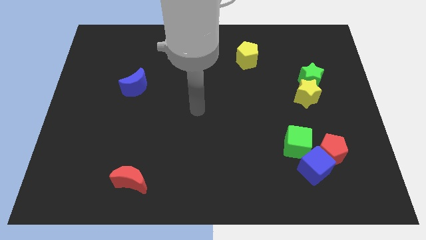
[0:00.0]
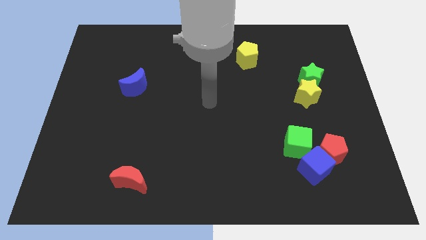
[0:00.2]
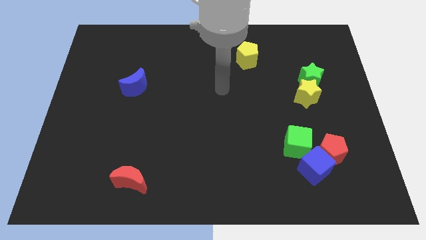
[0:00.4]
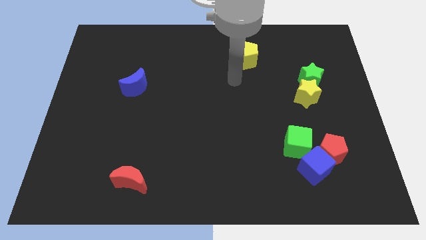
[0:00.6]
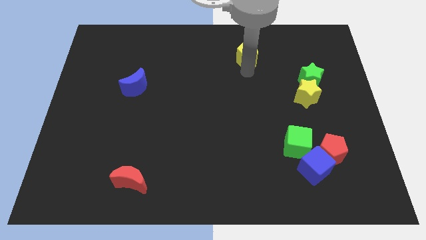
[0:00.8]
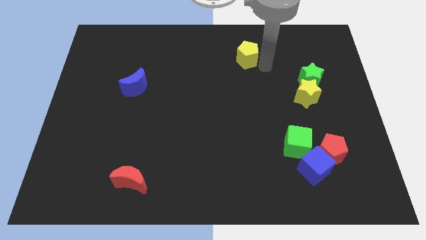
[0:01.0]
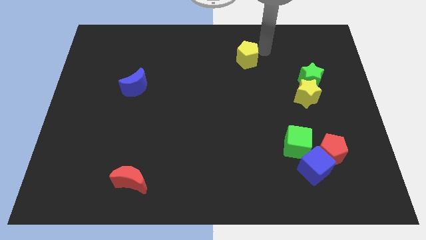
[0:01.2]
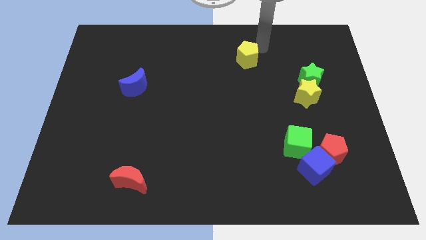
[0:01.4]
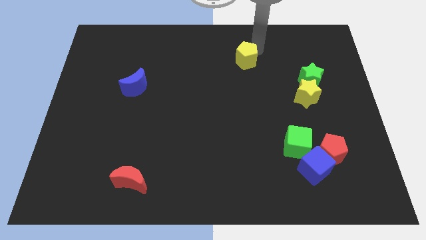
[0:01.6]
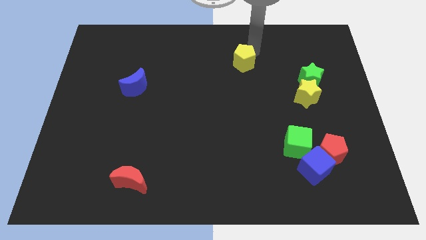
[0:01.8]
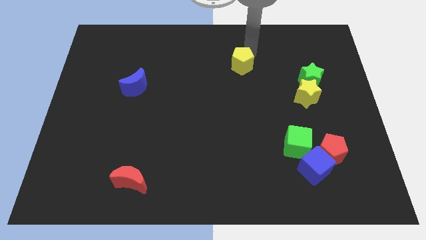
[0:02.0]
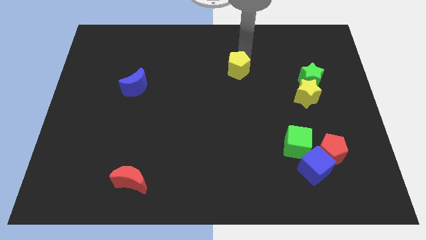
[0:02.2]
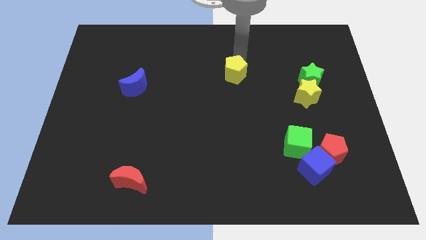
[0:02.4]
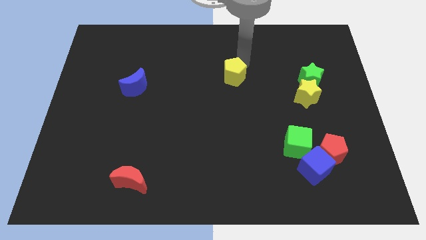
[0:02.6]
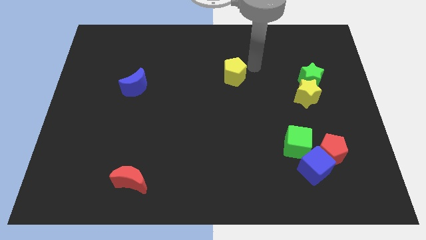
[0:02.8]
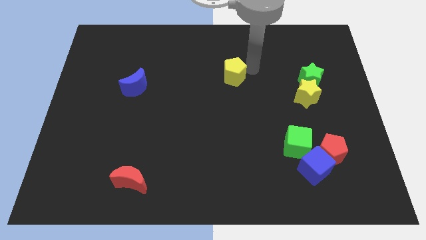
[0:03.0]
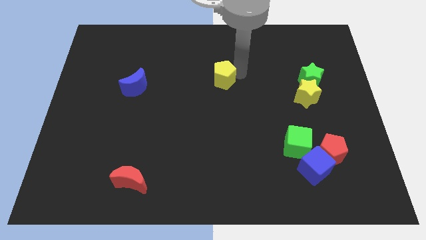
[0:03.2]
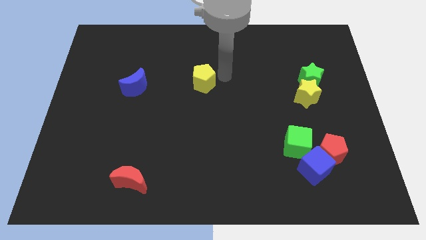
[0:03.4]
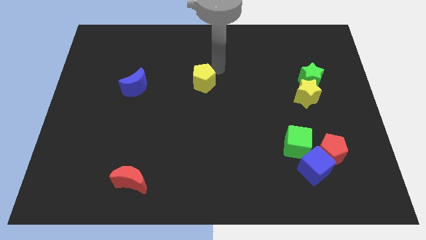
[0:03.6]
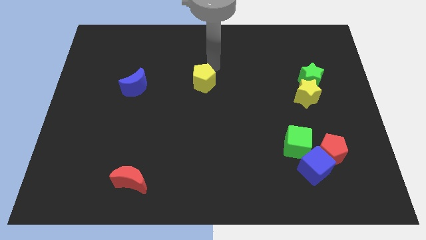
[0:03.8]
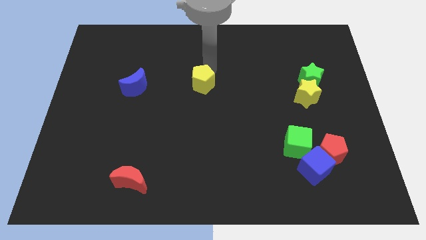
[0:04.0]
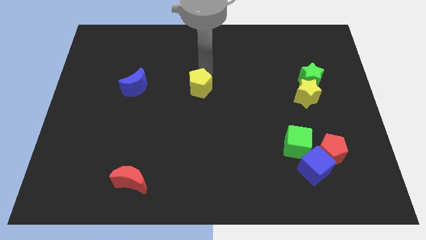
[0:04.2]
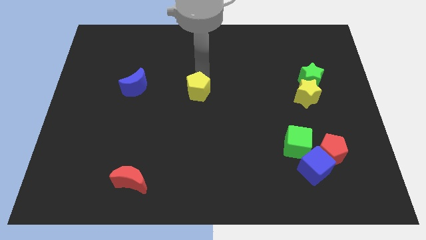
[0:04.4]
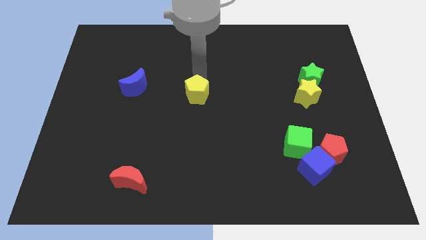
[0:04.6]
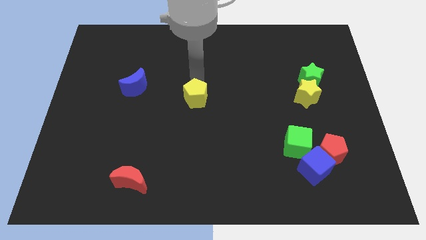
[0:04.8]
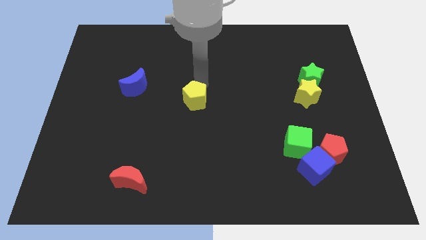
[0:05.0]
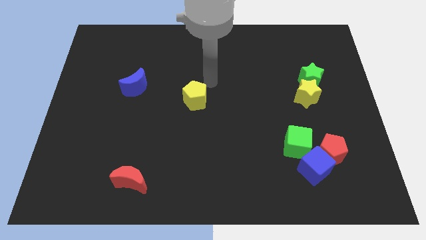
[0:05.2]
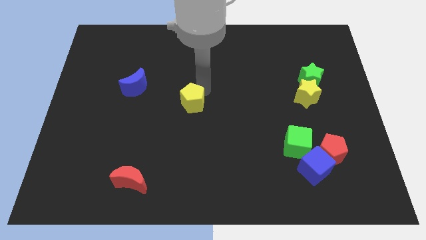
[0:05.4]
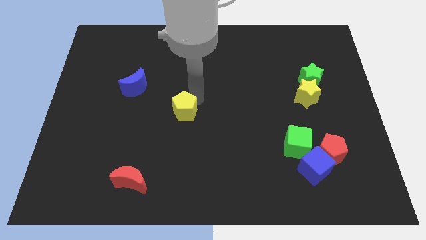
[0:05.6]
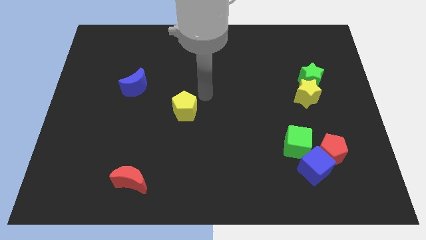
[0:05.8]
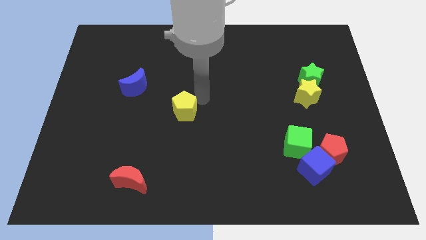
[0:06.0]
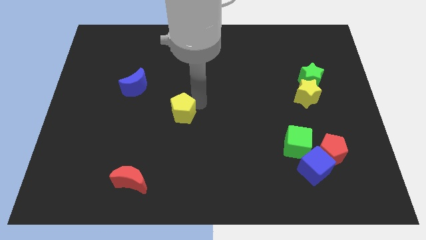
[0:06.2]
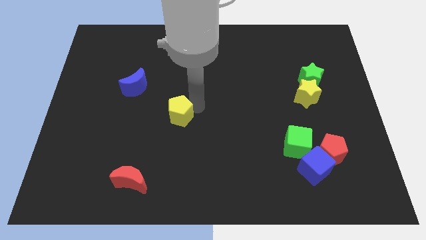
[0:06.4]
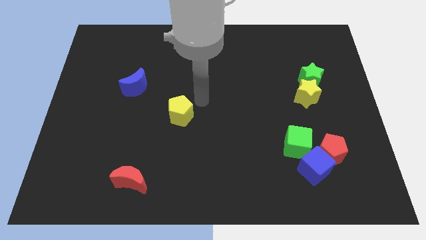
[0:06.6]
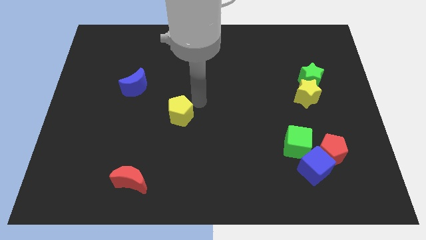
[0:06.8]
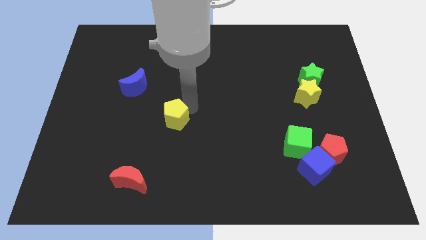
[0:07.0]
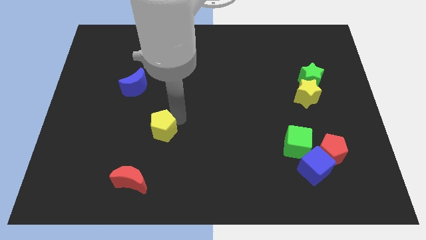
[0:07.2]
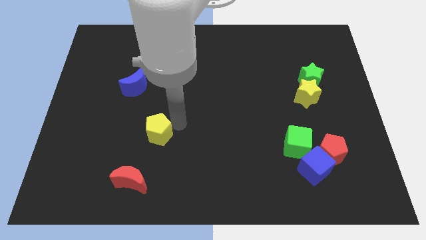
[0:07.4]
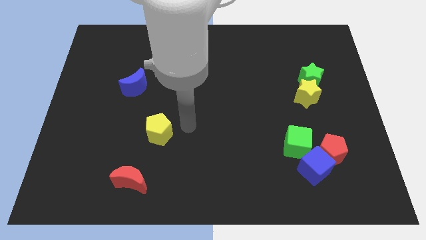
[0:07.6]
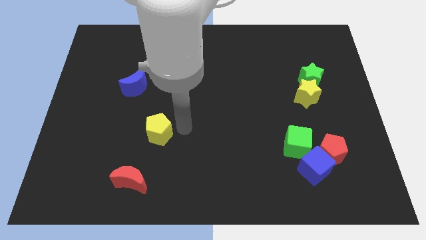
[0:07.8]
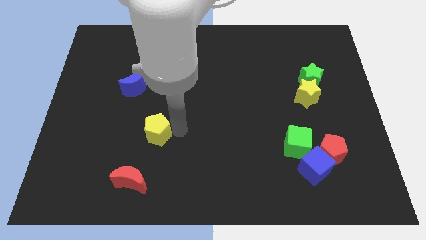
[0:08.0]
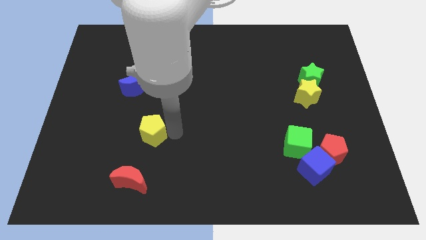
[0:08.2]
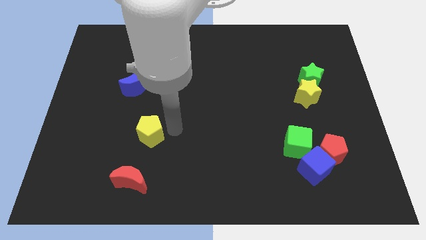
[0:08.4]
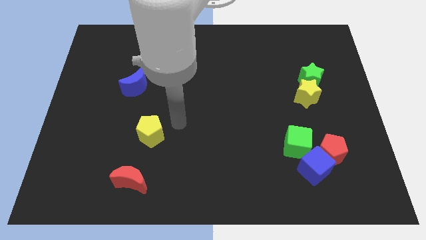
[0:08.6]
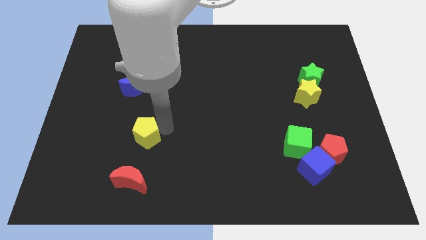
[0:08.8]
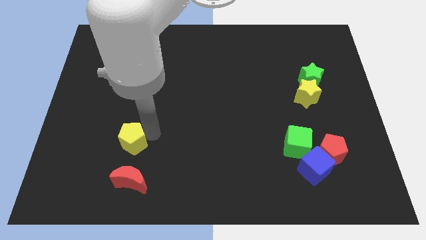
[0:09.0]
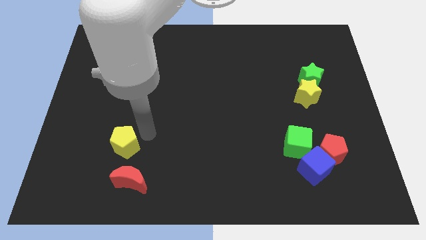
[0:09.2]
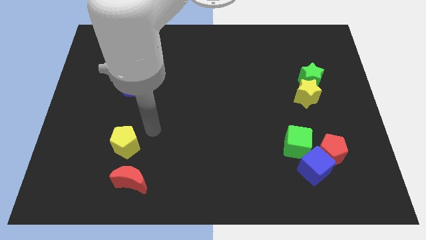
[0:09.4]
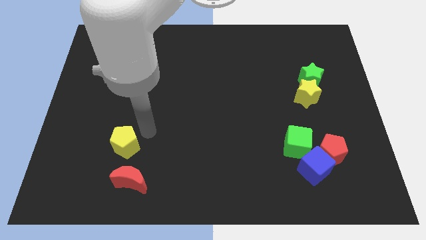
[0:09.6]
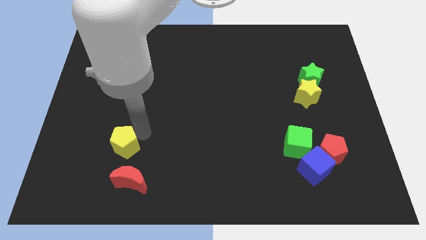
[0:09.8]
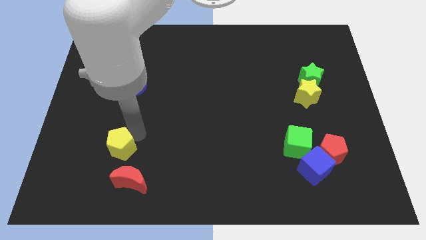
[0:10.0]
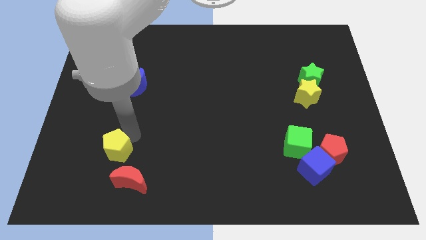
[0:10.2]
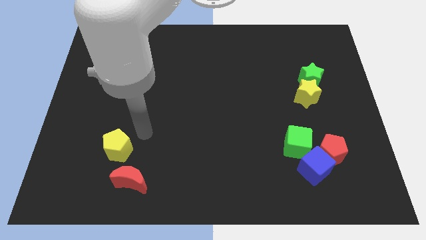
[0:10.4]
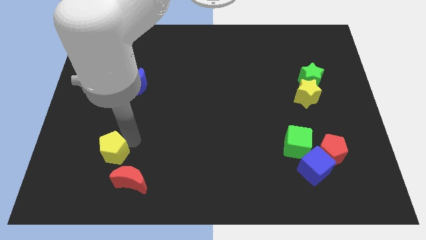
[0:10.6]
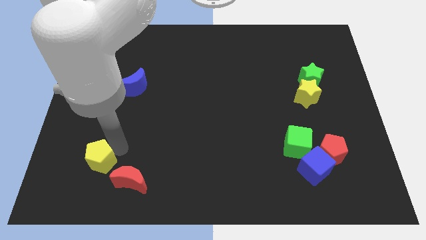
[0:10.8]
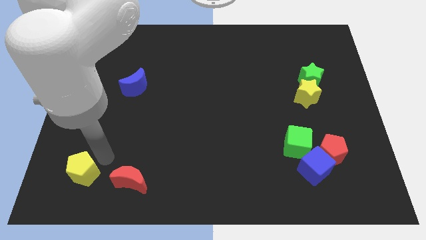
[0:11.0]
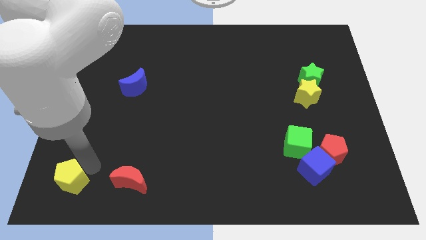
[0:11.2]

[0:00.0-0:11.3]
slide the yellow pentagon to the bottom left of the board

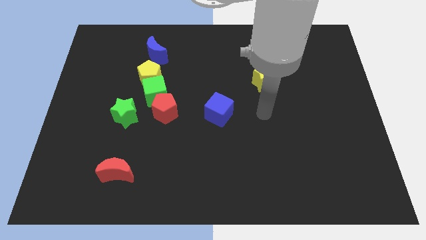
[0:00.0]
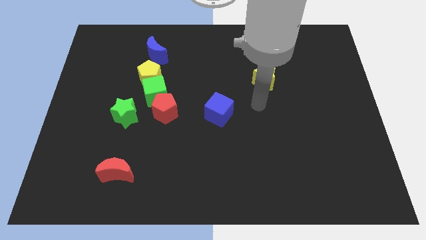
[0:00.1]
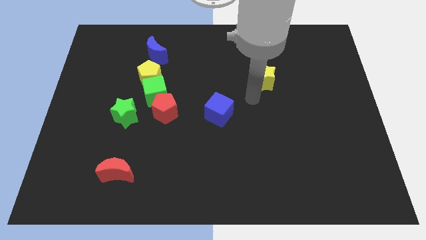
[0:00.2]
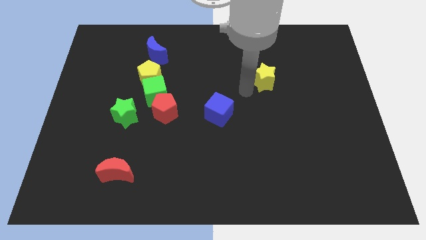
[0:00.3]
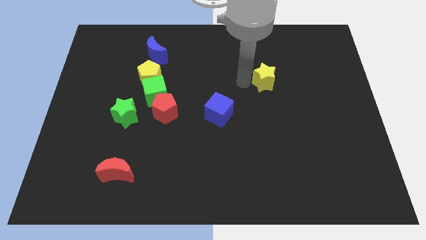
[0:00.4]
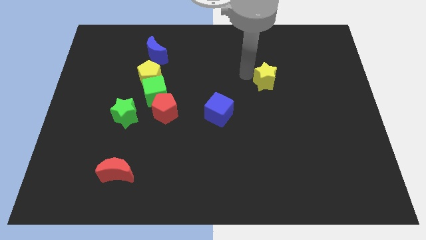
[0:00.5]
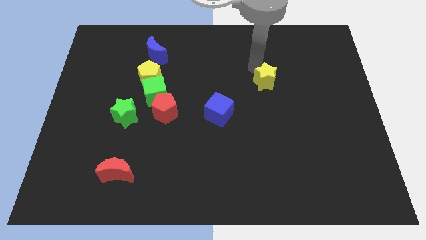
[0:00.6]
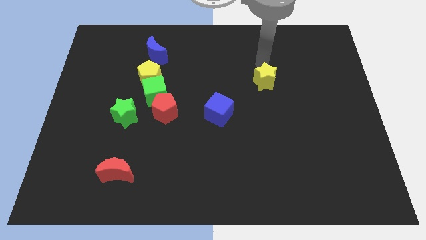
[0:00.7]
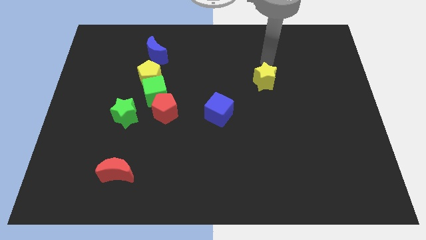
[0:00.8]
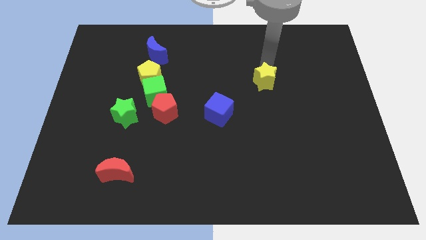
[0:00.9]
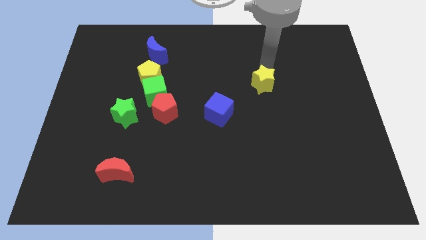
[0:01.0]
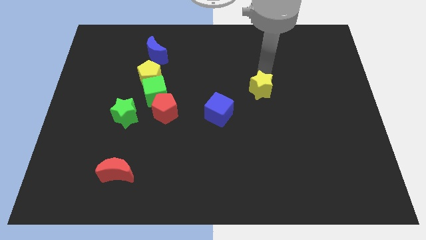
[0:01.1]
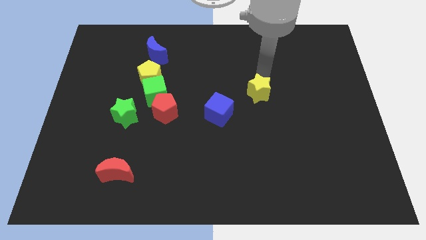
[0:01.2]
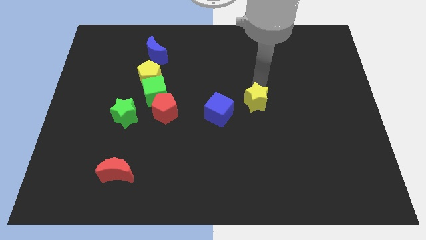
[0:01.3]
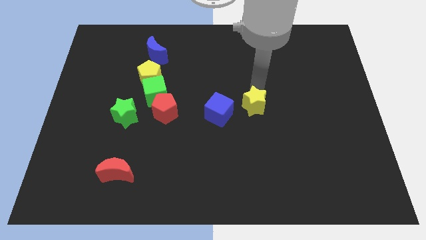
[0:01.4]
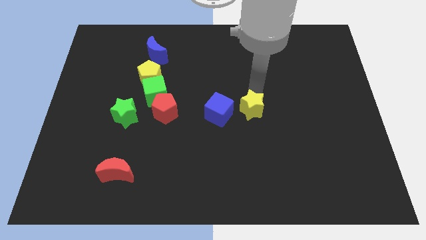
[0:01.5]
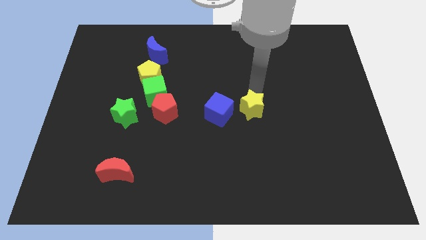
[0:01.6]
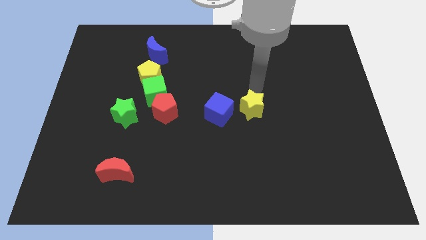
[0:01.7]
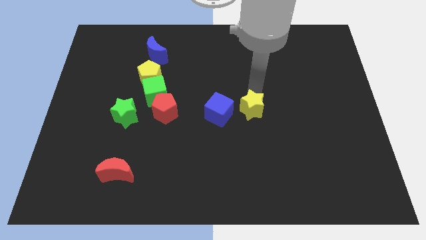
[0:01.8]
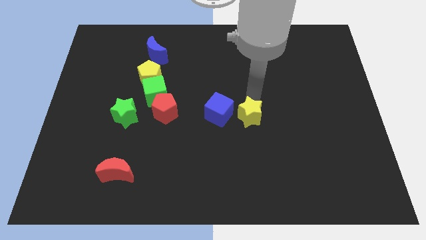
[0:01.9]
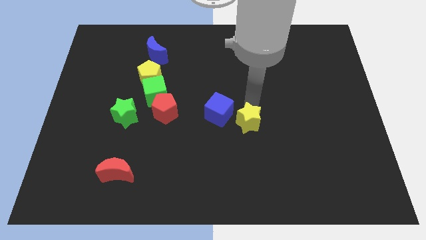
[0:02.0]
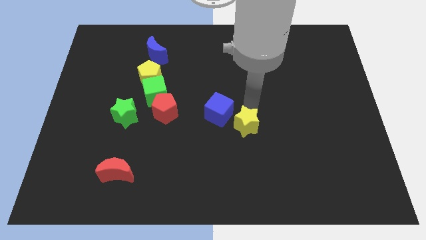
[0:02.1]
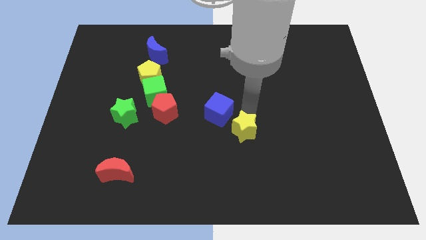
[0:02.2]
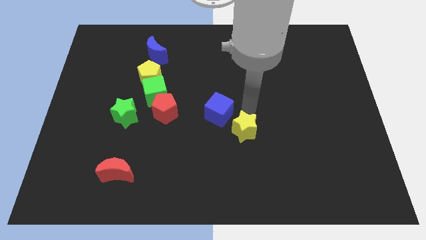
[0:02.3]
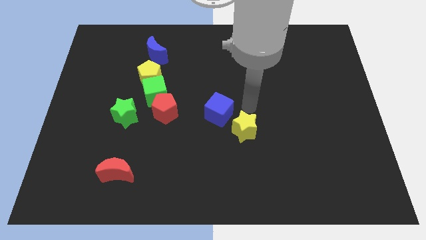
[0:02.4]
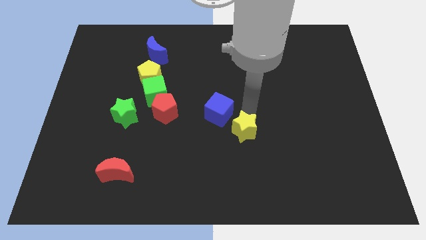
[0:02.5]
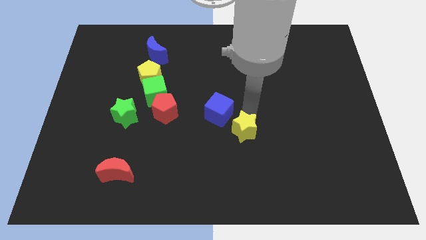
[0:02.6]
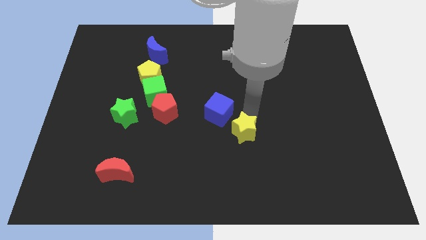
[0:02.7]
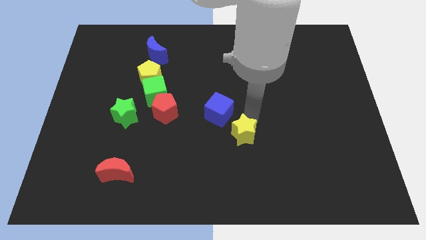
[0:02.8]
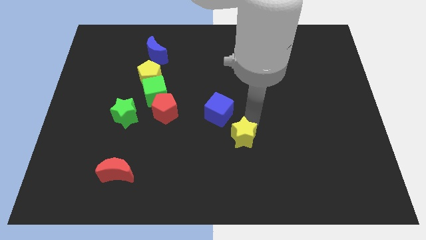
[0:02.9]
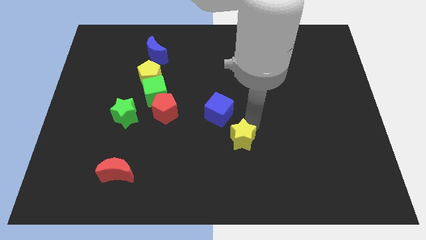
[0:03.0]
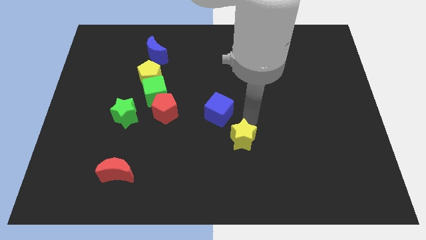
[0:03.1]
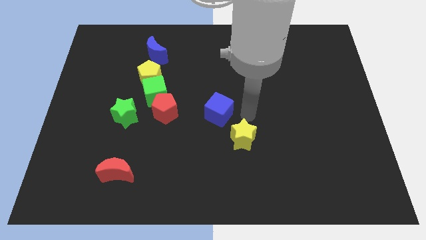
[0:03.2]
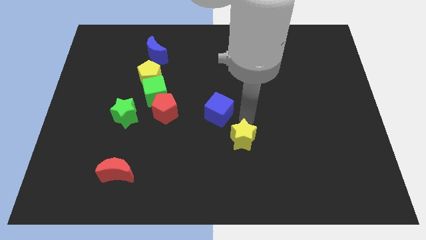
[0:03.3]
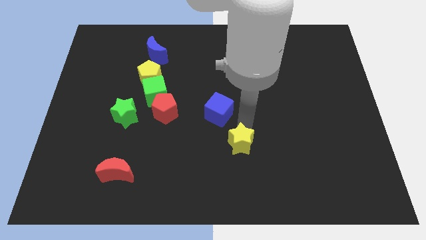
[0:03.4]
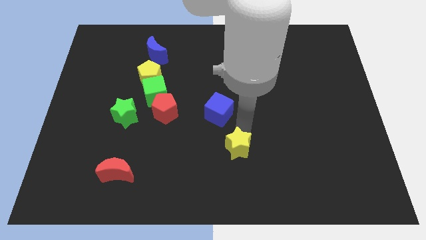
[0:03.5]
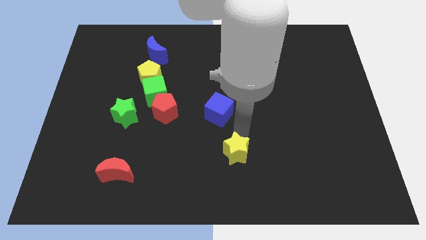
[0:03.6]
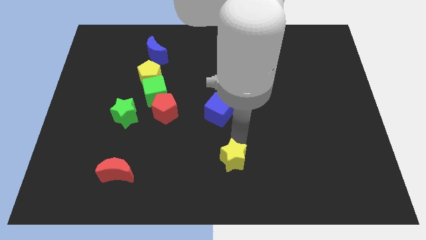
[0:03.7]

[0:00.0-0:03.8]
put the yellow star to the bottom
